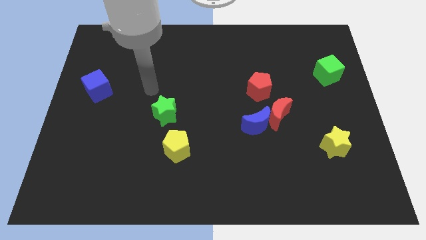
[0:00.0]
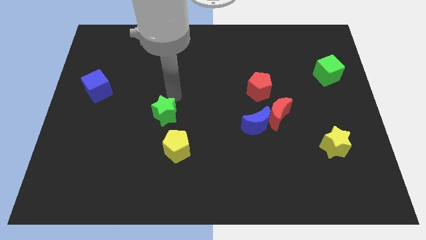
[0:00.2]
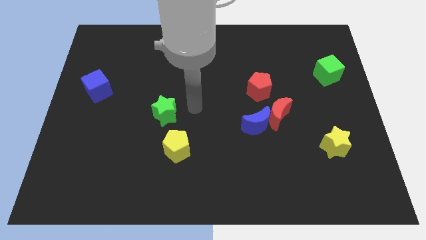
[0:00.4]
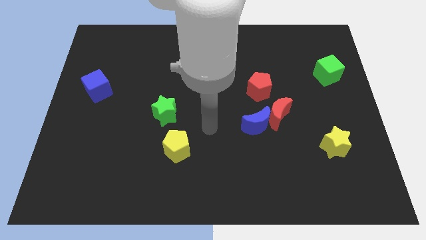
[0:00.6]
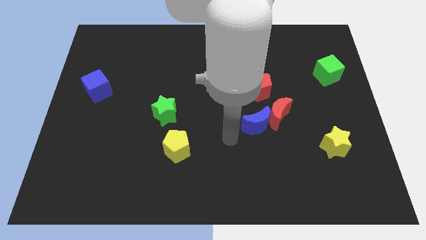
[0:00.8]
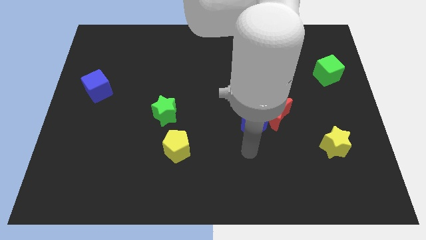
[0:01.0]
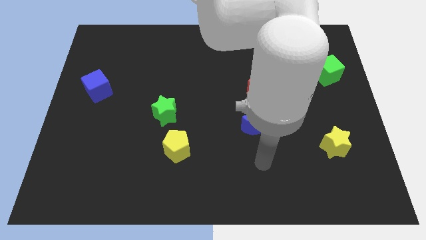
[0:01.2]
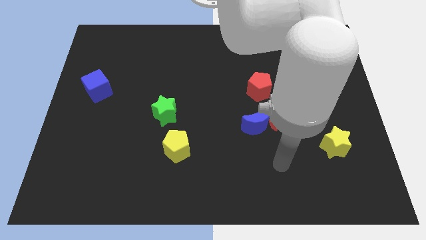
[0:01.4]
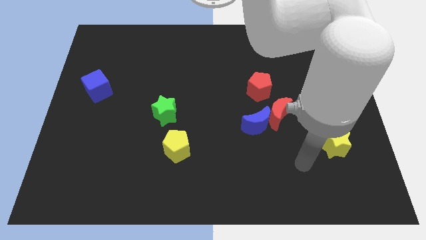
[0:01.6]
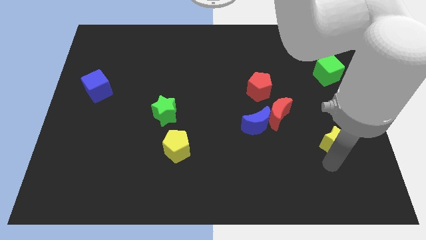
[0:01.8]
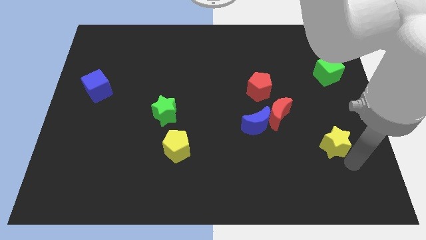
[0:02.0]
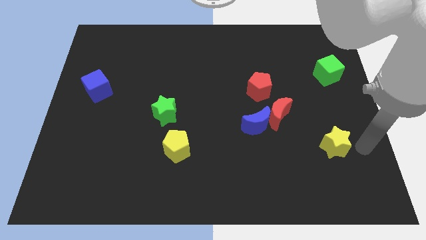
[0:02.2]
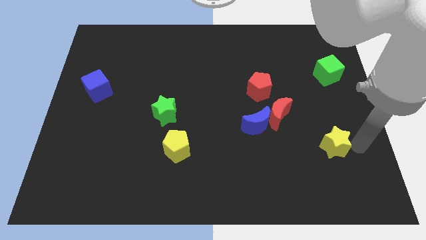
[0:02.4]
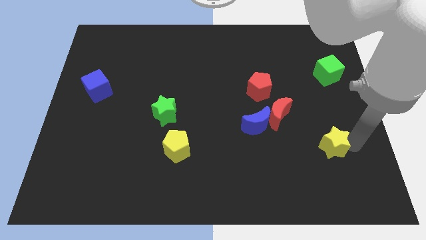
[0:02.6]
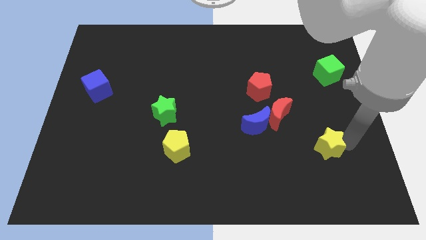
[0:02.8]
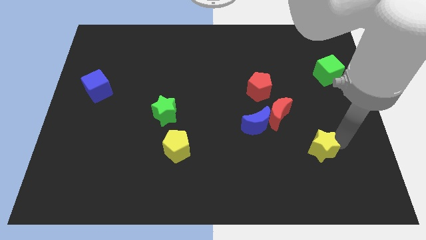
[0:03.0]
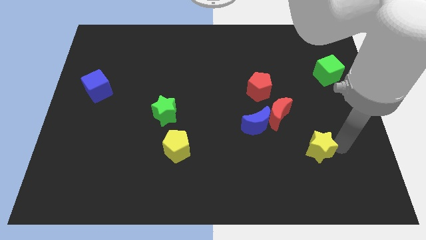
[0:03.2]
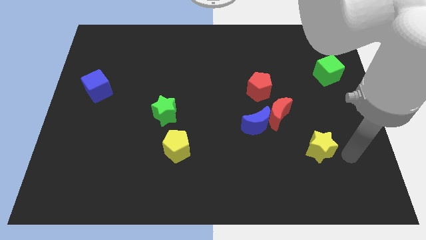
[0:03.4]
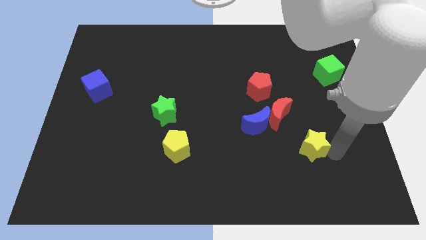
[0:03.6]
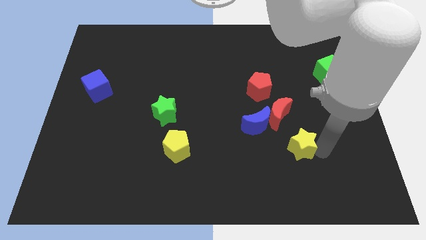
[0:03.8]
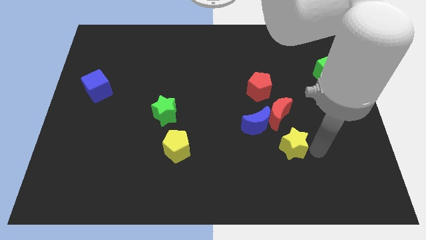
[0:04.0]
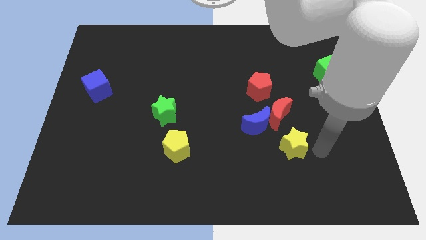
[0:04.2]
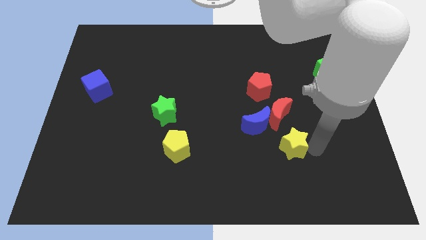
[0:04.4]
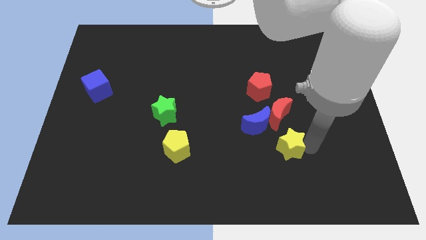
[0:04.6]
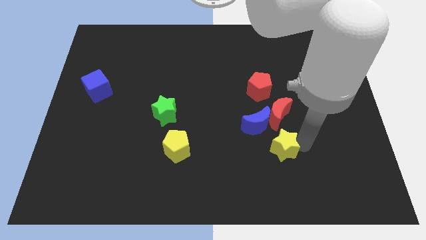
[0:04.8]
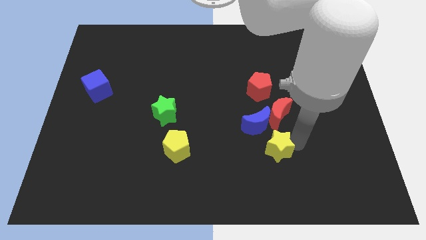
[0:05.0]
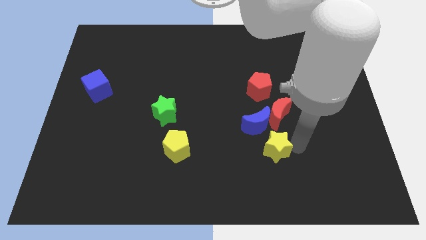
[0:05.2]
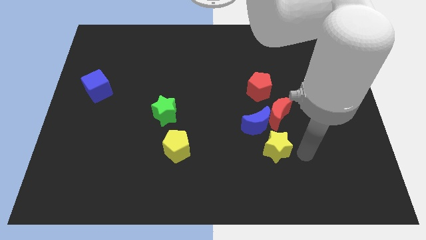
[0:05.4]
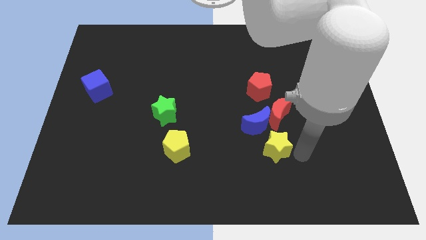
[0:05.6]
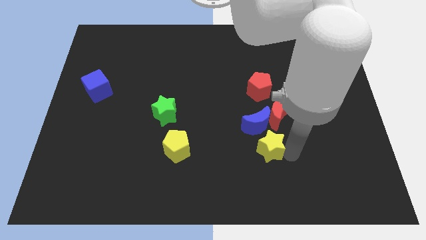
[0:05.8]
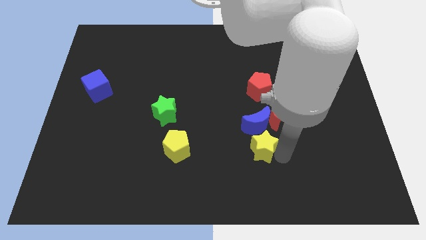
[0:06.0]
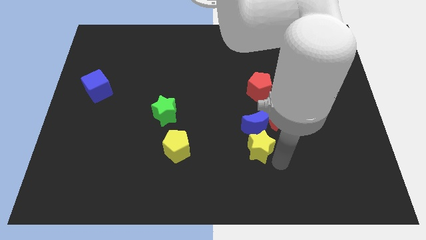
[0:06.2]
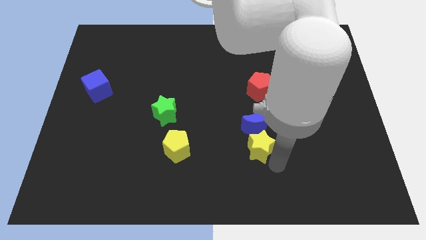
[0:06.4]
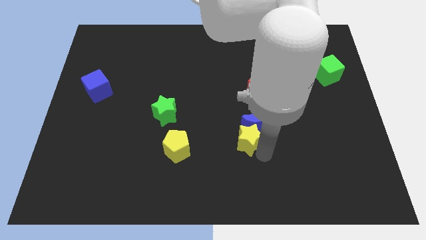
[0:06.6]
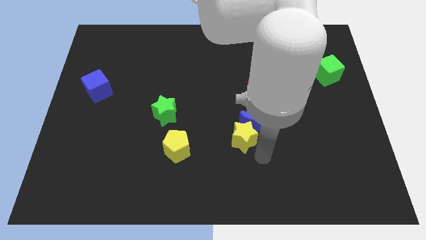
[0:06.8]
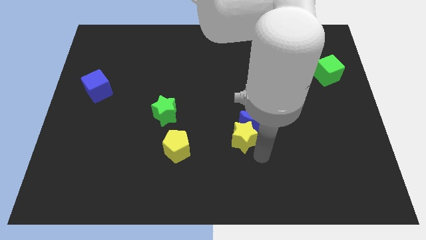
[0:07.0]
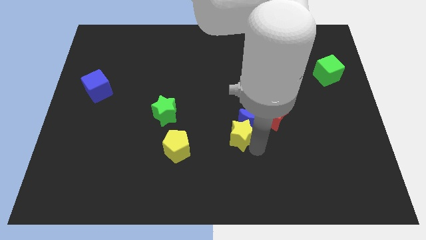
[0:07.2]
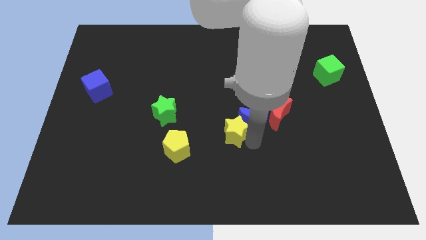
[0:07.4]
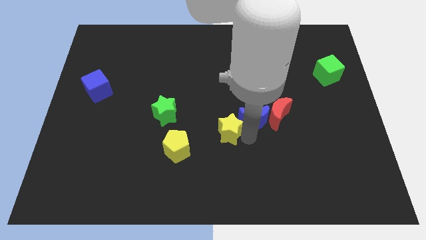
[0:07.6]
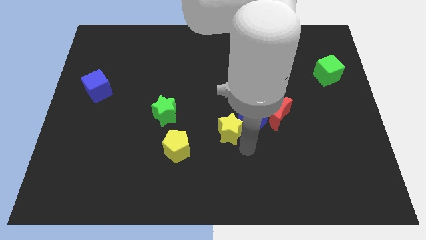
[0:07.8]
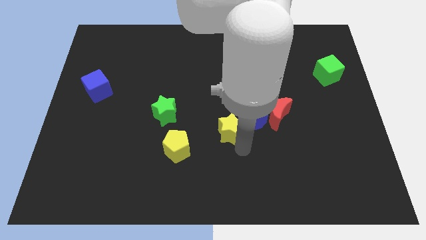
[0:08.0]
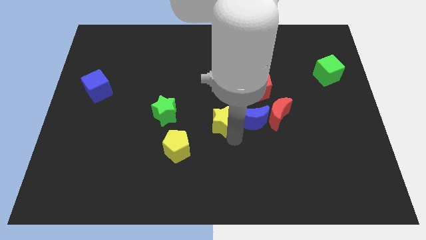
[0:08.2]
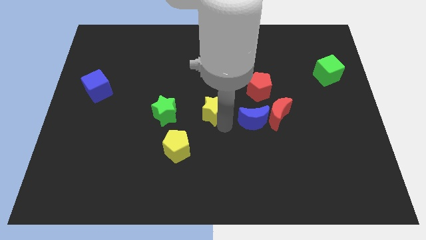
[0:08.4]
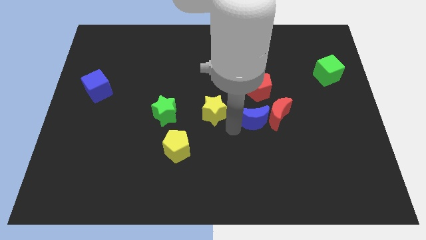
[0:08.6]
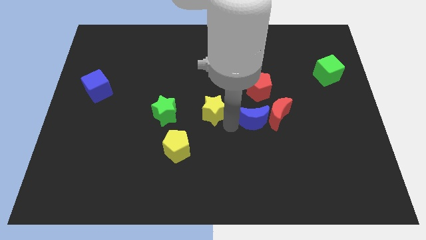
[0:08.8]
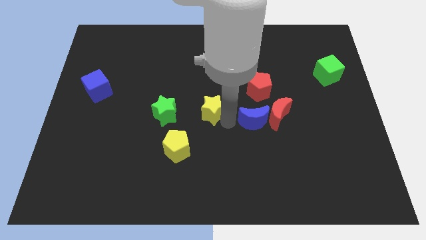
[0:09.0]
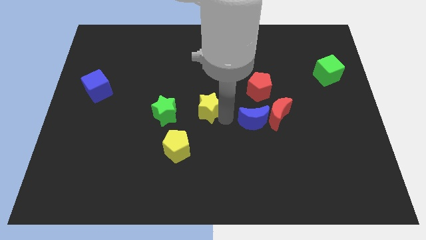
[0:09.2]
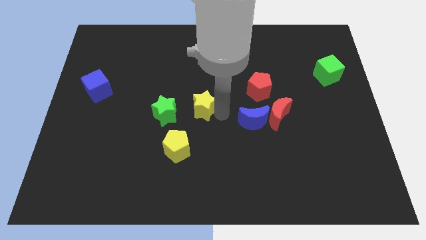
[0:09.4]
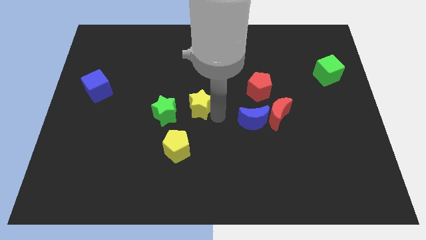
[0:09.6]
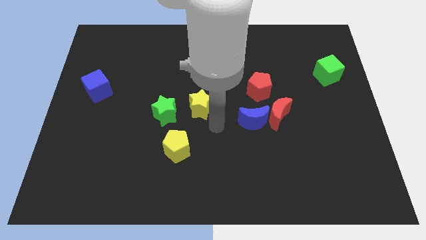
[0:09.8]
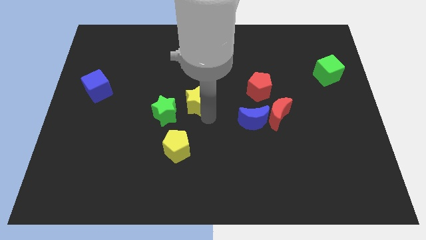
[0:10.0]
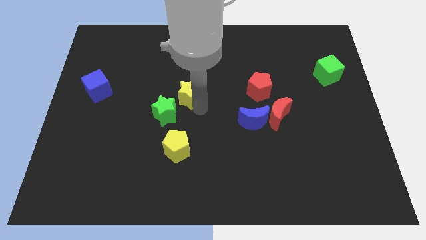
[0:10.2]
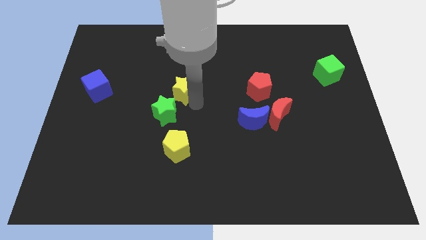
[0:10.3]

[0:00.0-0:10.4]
slide the yellow star above the green star

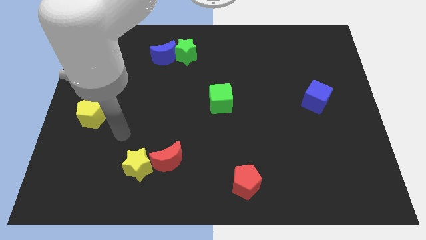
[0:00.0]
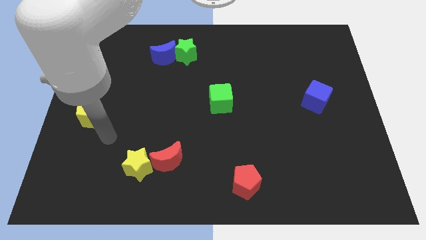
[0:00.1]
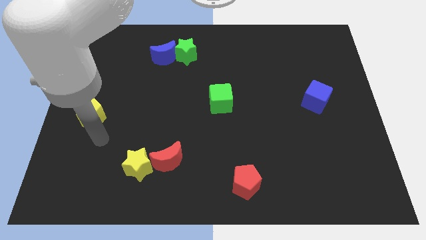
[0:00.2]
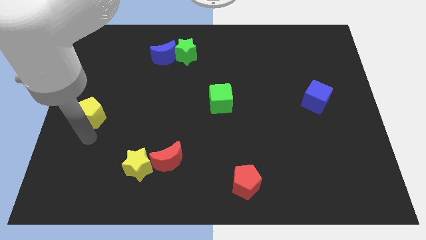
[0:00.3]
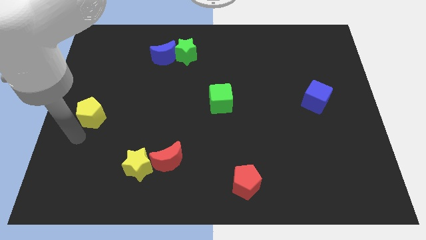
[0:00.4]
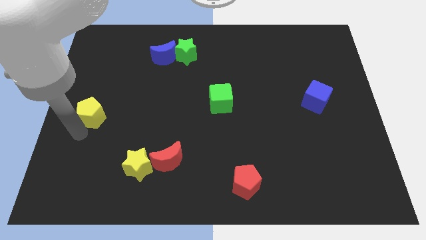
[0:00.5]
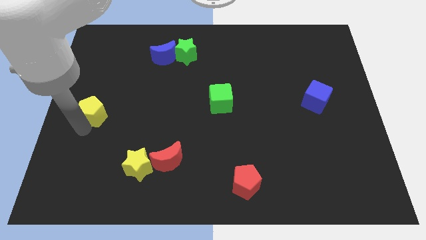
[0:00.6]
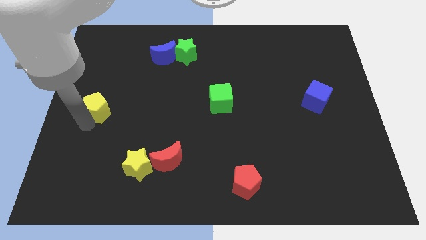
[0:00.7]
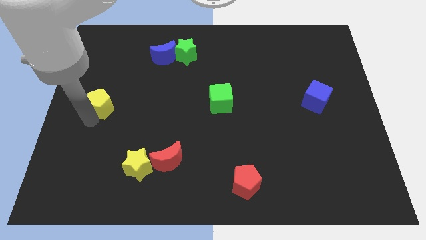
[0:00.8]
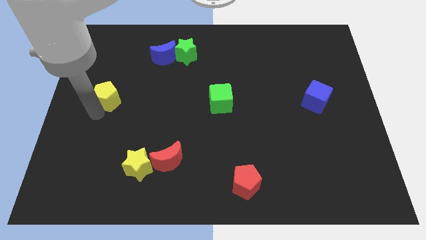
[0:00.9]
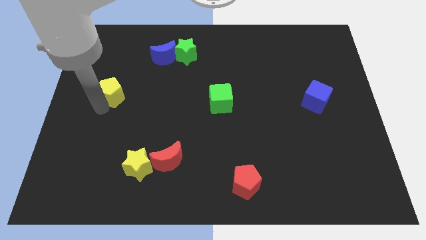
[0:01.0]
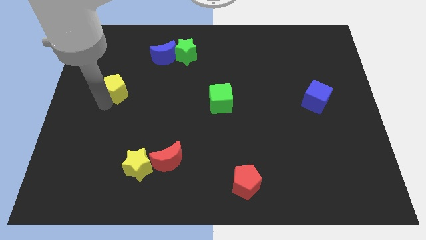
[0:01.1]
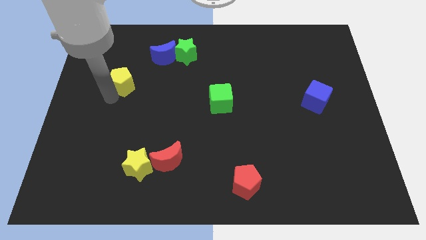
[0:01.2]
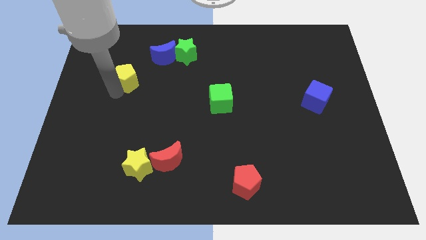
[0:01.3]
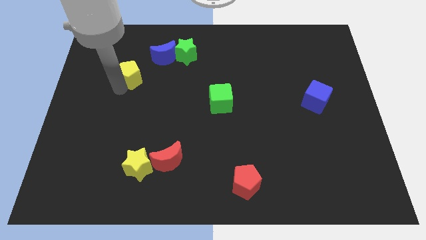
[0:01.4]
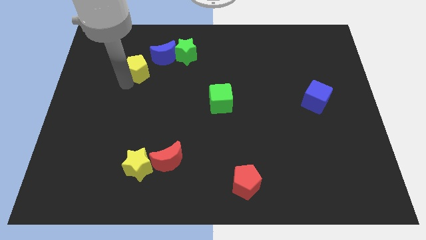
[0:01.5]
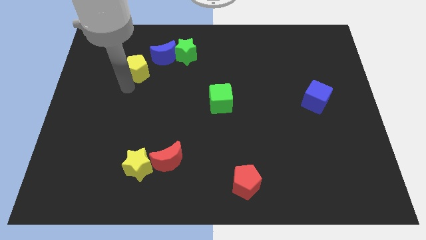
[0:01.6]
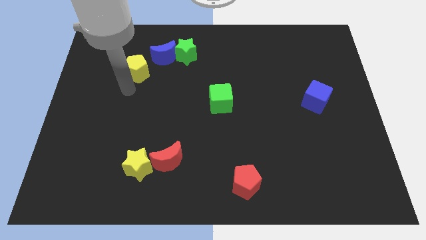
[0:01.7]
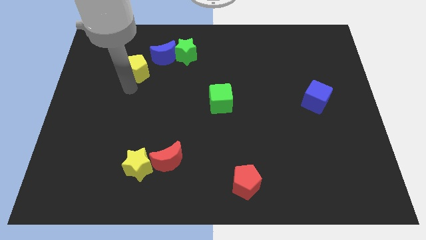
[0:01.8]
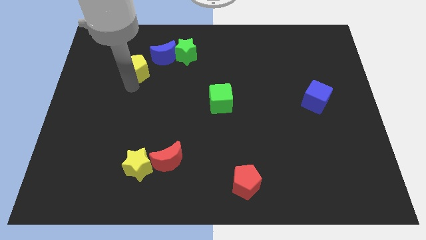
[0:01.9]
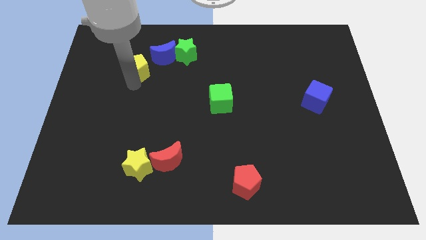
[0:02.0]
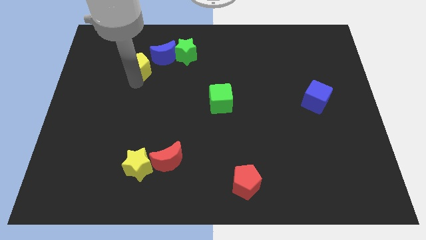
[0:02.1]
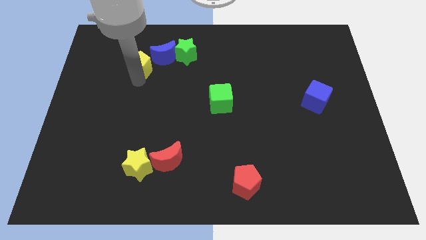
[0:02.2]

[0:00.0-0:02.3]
put the yellow pentagon to the left side of the green star
